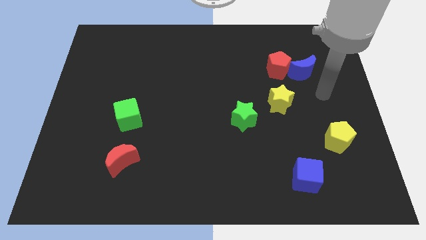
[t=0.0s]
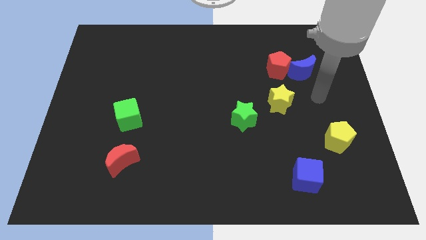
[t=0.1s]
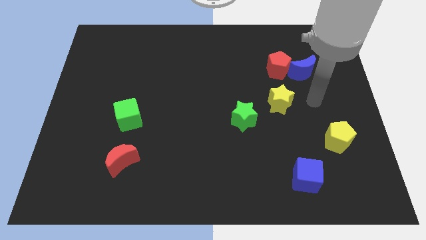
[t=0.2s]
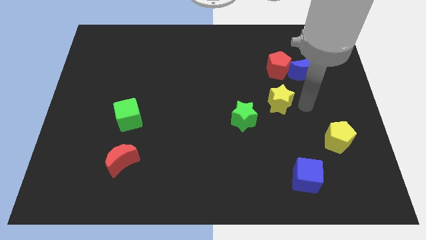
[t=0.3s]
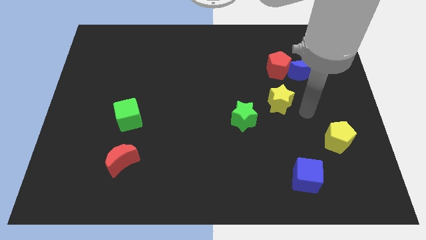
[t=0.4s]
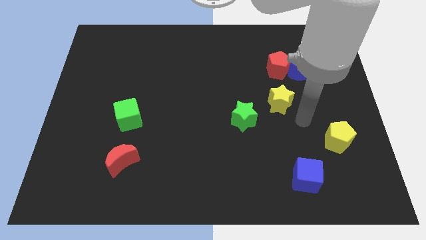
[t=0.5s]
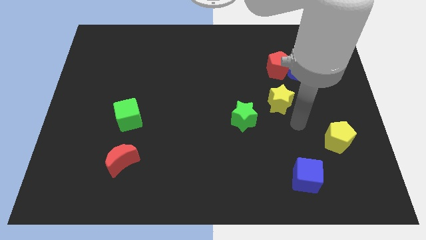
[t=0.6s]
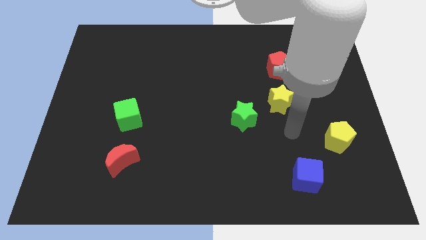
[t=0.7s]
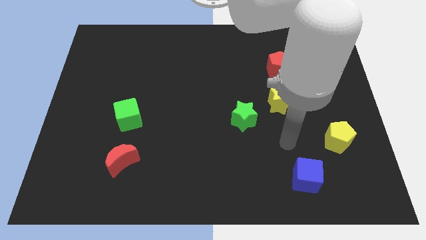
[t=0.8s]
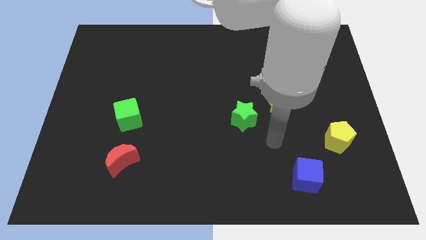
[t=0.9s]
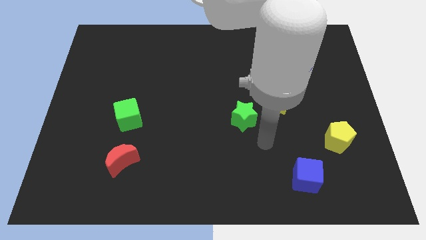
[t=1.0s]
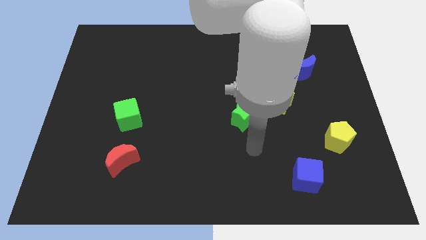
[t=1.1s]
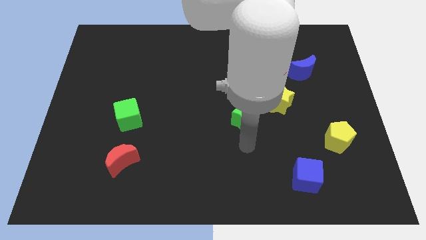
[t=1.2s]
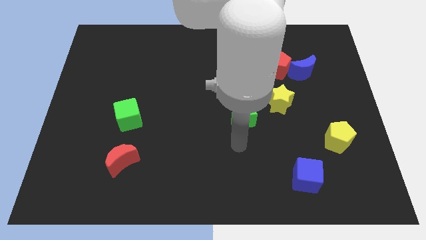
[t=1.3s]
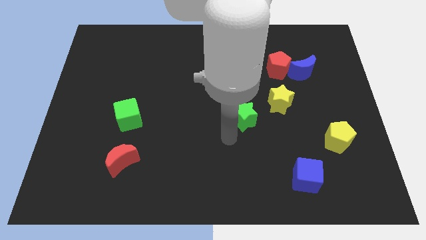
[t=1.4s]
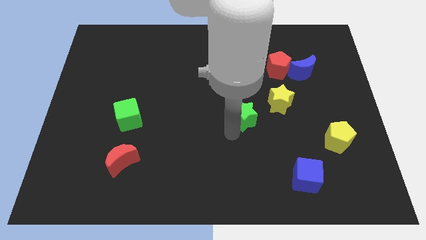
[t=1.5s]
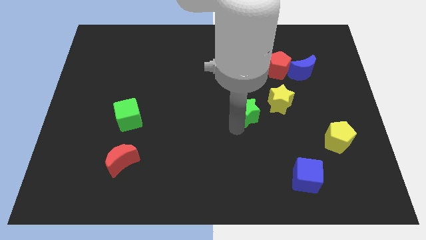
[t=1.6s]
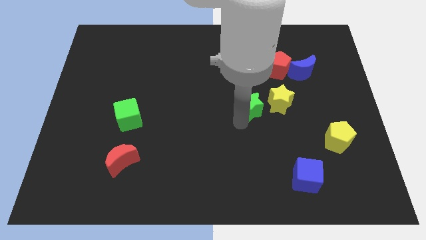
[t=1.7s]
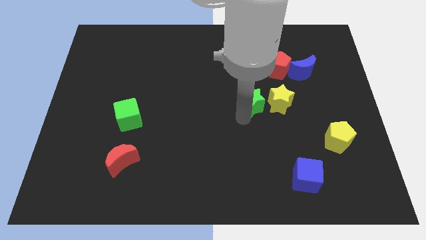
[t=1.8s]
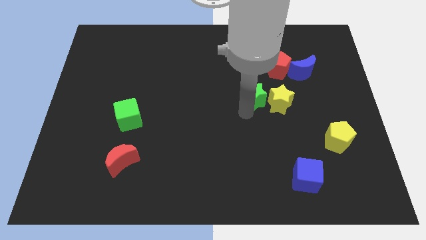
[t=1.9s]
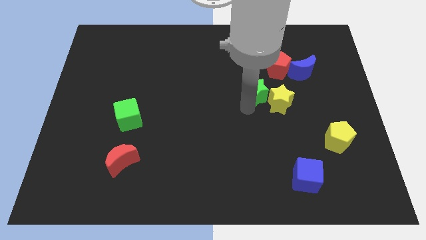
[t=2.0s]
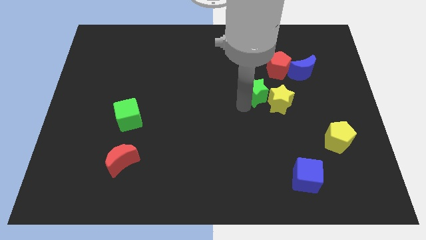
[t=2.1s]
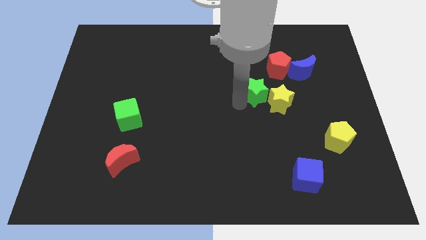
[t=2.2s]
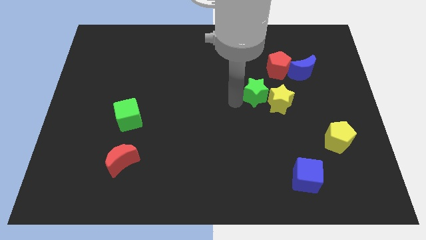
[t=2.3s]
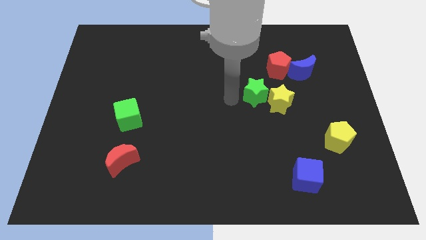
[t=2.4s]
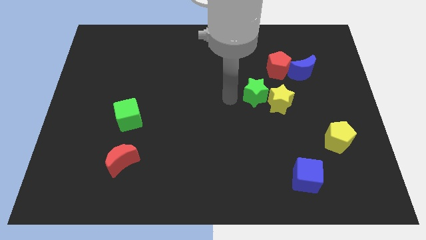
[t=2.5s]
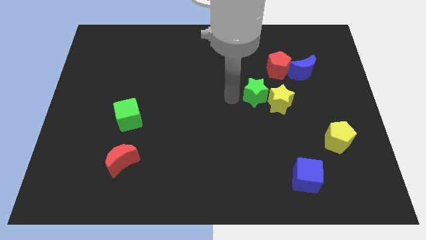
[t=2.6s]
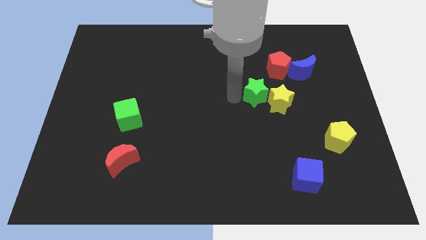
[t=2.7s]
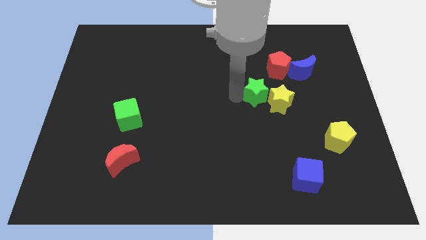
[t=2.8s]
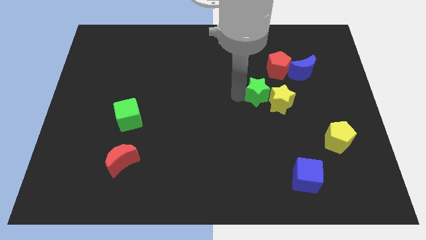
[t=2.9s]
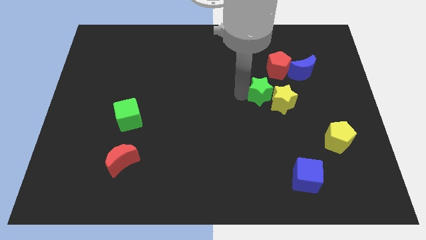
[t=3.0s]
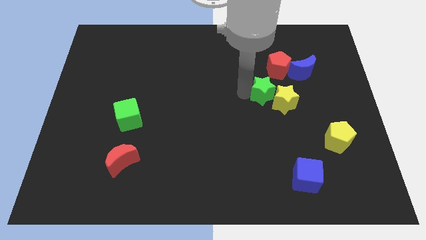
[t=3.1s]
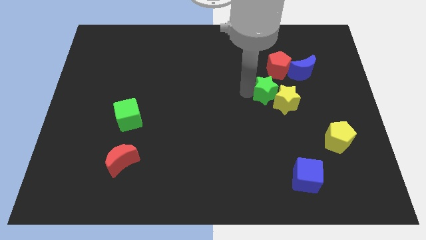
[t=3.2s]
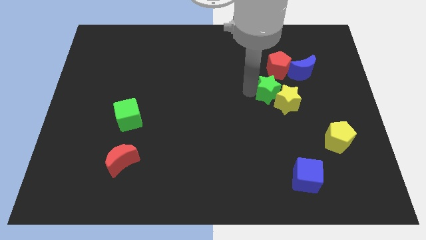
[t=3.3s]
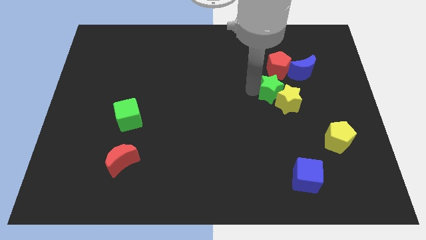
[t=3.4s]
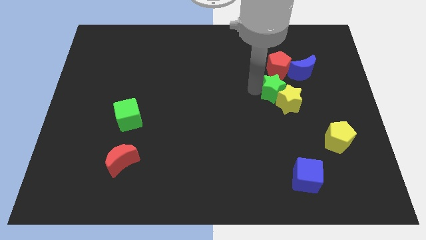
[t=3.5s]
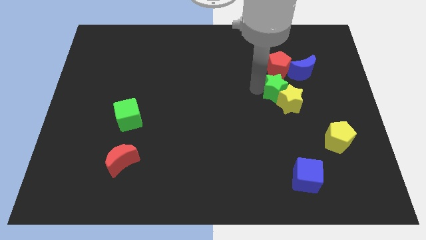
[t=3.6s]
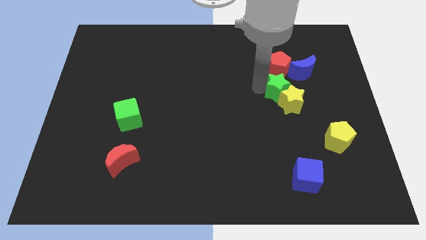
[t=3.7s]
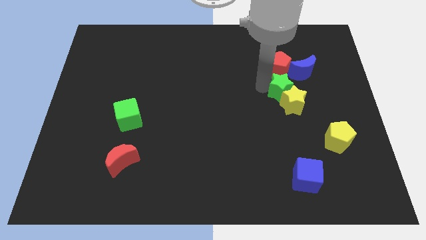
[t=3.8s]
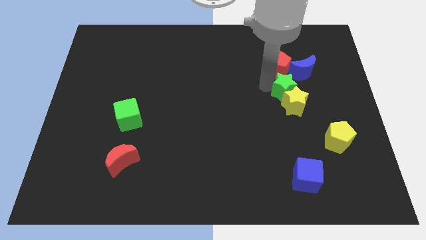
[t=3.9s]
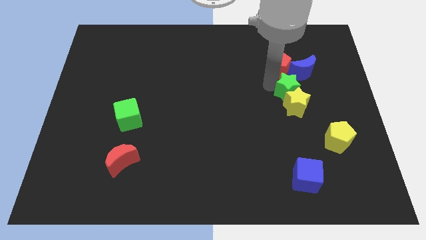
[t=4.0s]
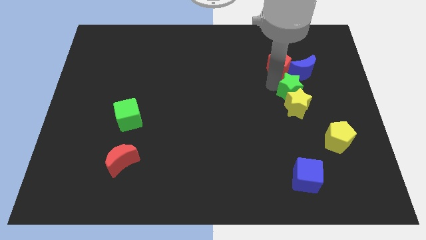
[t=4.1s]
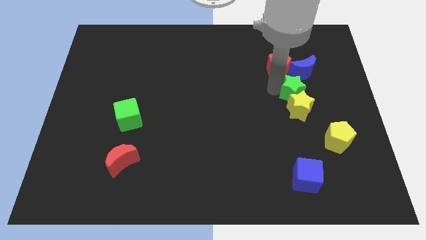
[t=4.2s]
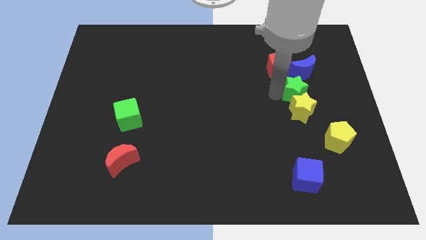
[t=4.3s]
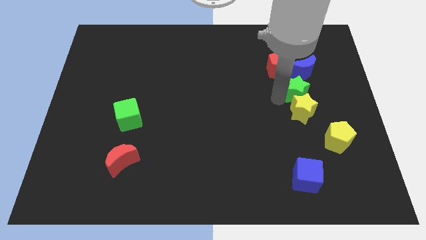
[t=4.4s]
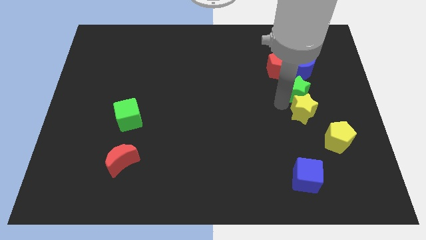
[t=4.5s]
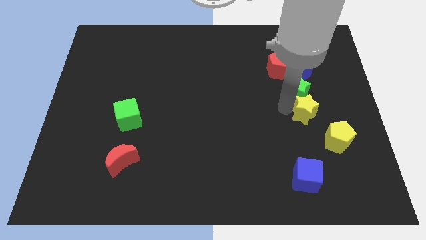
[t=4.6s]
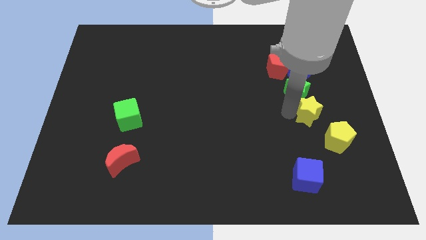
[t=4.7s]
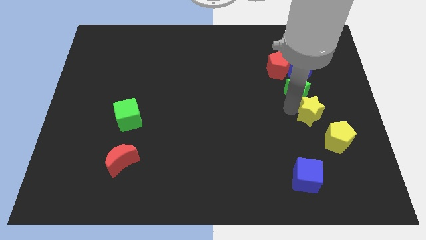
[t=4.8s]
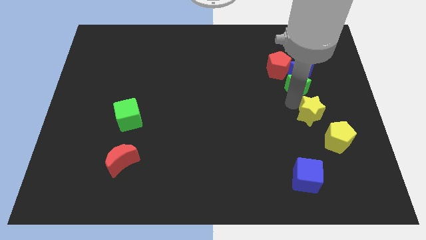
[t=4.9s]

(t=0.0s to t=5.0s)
push the green star next to the blue moon

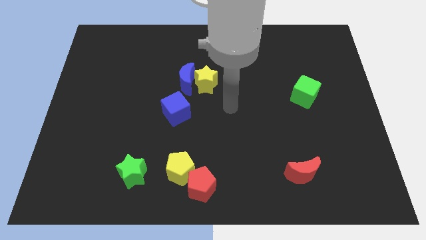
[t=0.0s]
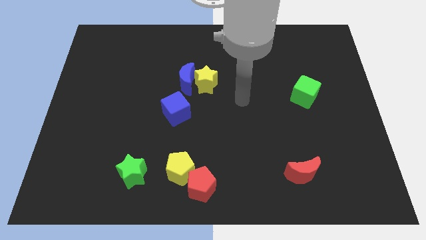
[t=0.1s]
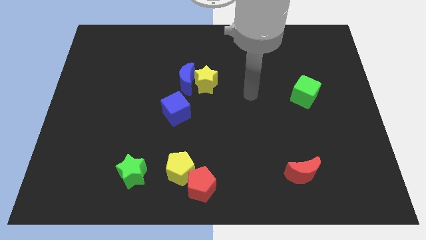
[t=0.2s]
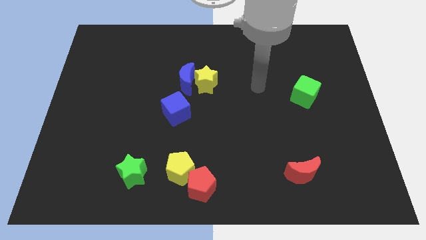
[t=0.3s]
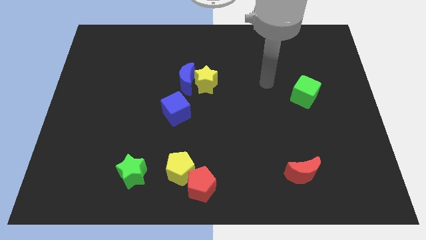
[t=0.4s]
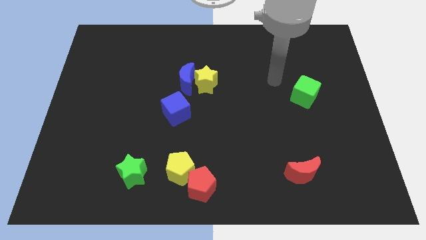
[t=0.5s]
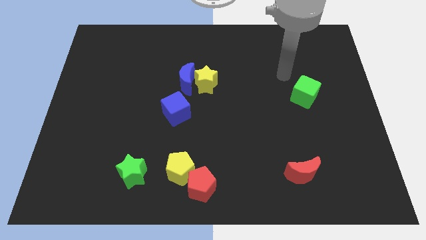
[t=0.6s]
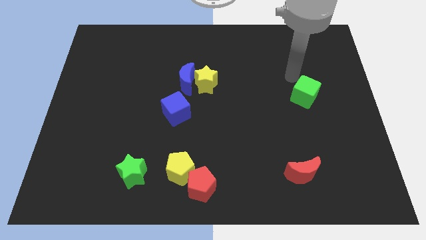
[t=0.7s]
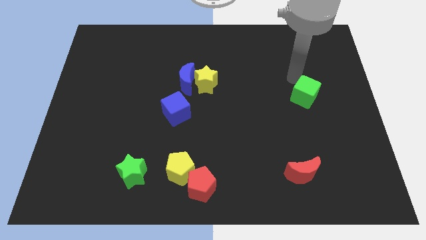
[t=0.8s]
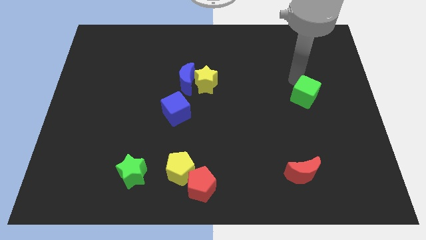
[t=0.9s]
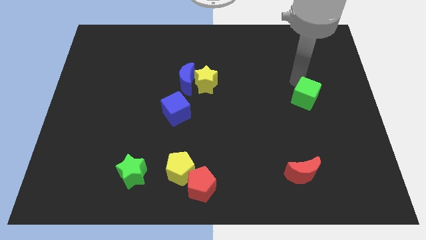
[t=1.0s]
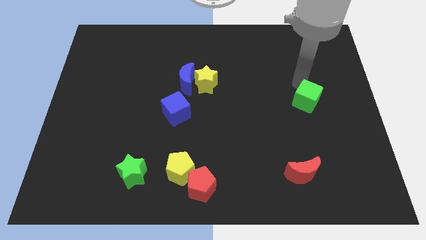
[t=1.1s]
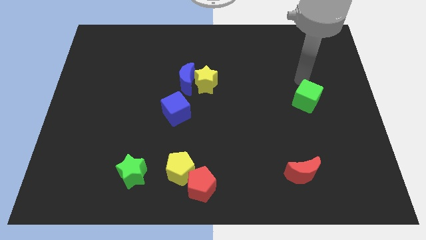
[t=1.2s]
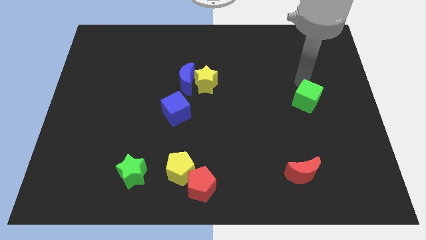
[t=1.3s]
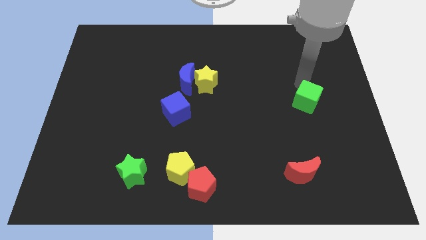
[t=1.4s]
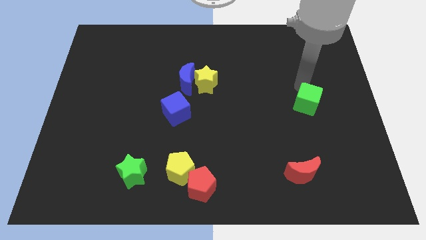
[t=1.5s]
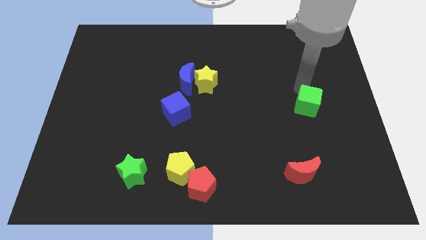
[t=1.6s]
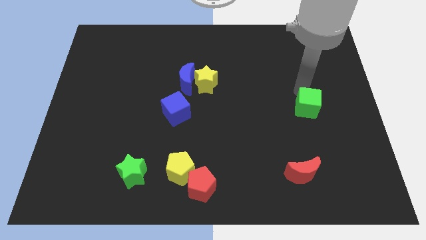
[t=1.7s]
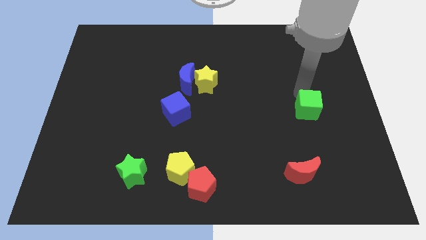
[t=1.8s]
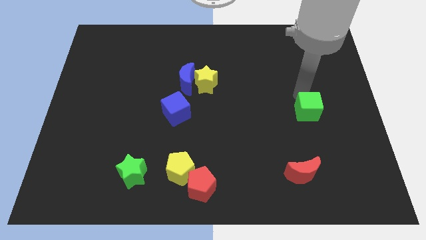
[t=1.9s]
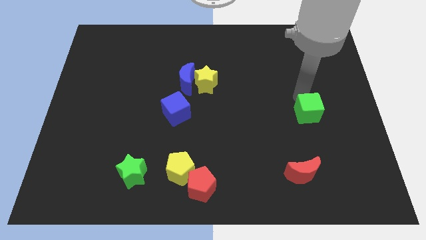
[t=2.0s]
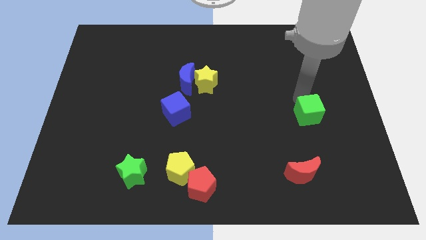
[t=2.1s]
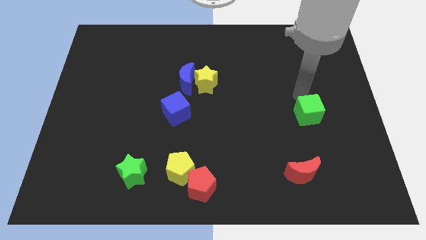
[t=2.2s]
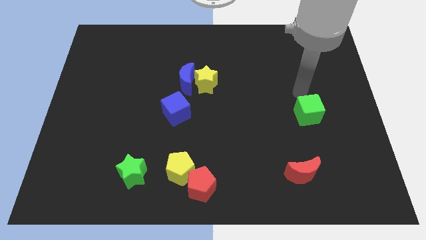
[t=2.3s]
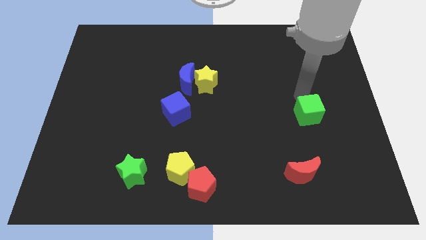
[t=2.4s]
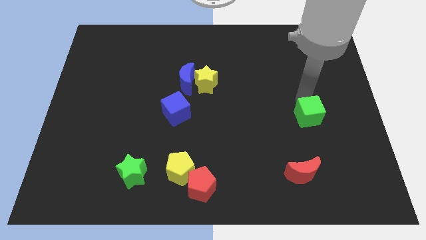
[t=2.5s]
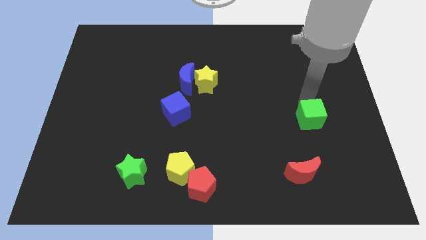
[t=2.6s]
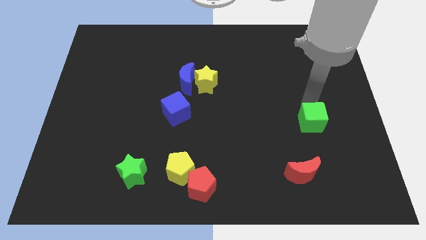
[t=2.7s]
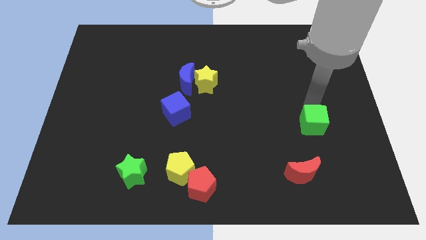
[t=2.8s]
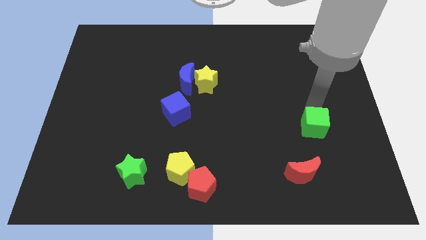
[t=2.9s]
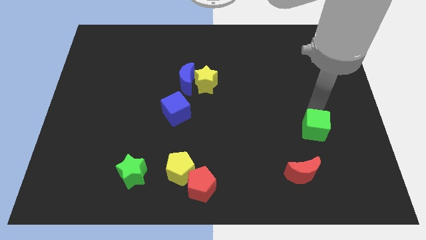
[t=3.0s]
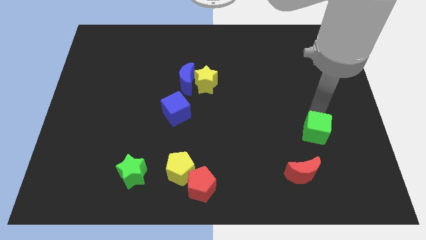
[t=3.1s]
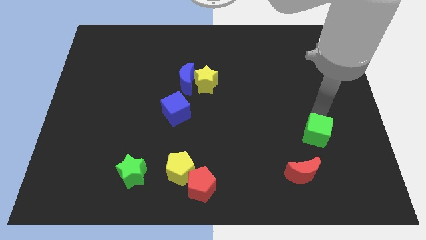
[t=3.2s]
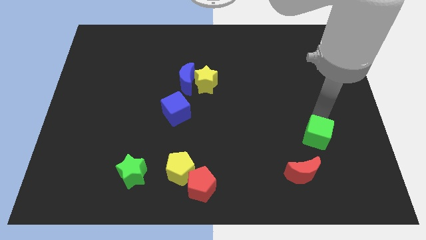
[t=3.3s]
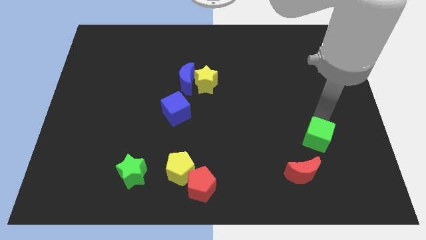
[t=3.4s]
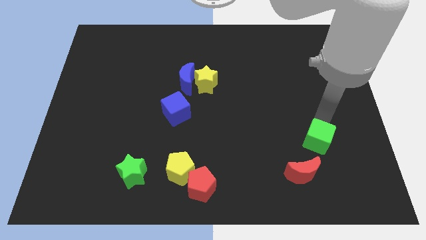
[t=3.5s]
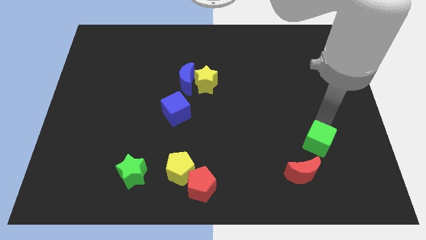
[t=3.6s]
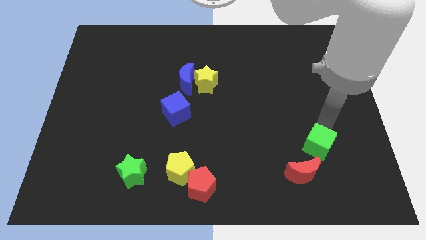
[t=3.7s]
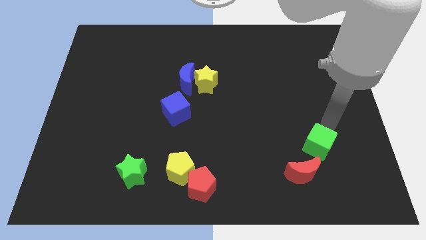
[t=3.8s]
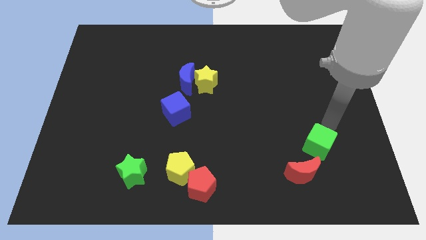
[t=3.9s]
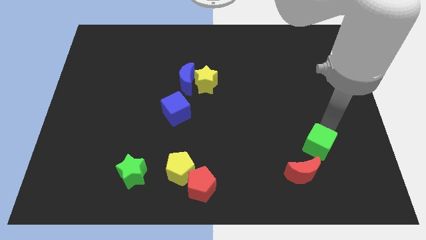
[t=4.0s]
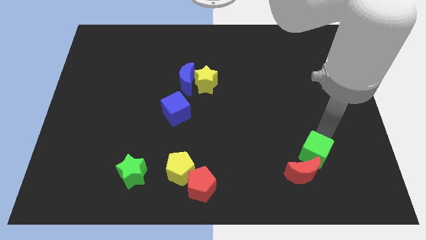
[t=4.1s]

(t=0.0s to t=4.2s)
push the green cube to the red moon
